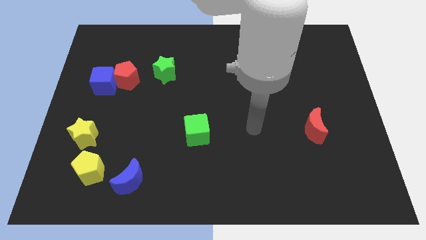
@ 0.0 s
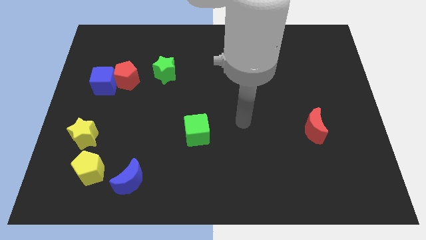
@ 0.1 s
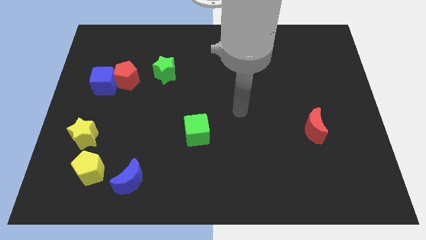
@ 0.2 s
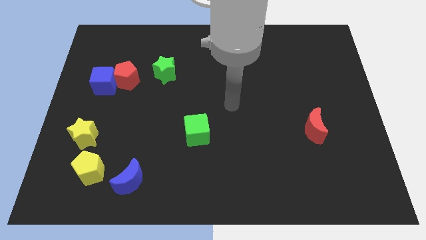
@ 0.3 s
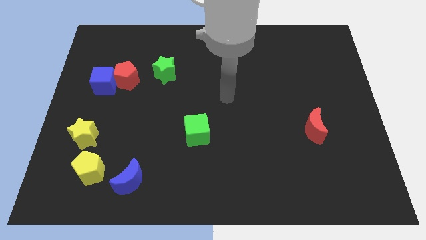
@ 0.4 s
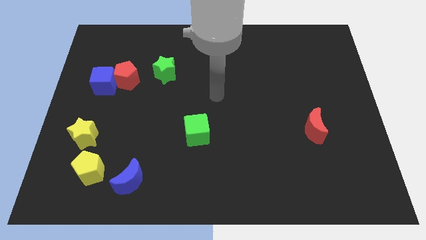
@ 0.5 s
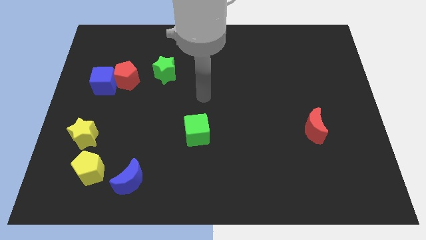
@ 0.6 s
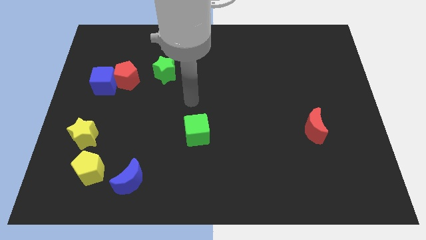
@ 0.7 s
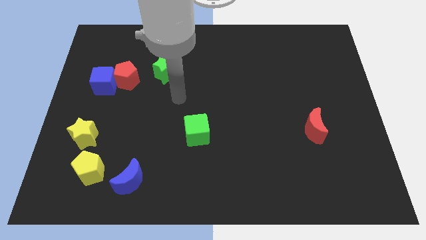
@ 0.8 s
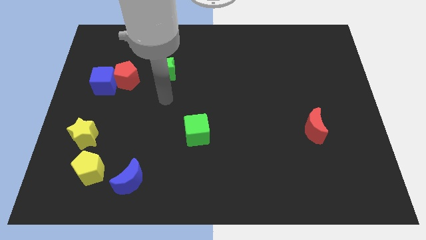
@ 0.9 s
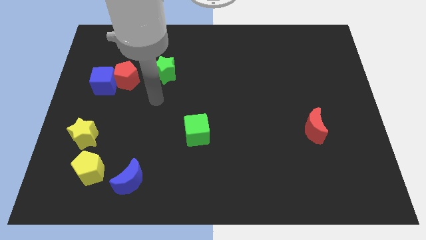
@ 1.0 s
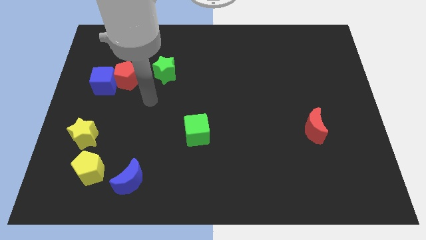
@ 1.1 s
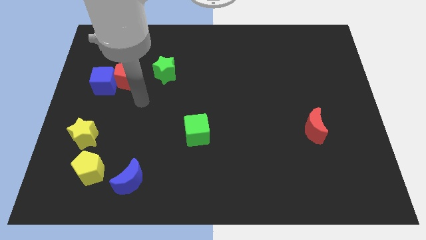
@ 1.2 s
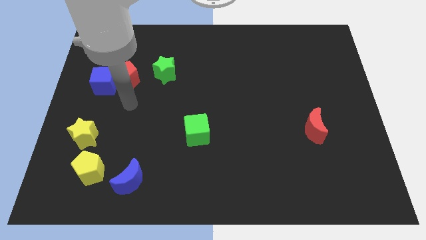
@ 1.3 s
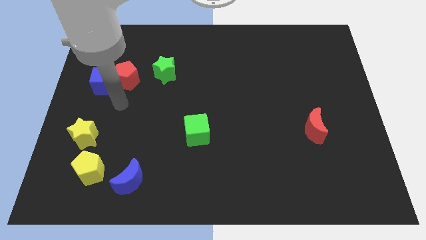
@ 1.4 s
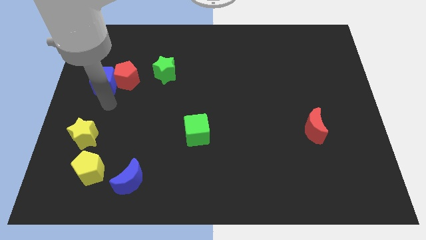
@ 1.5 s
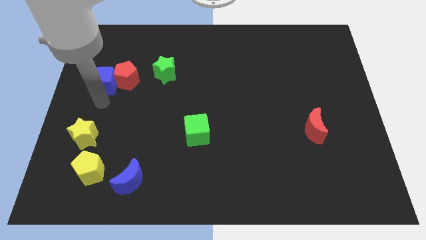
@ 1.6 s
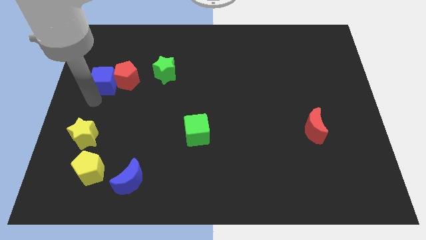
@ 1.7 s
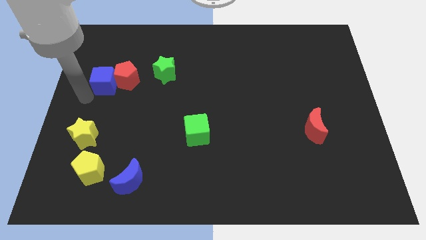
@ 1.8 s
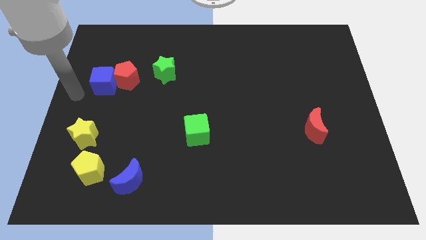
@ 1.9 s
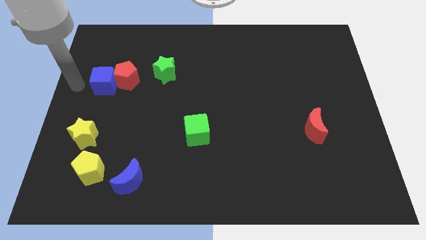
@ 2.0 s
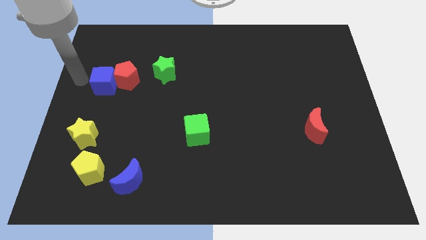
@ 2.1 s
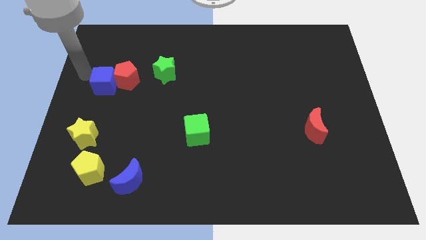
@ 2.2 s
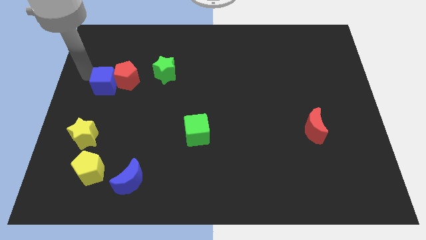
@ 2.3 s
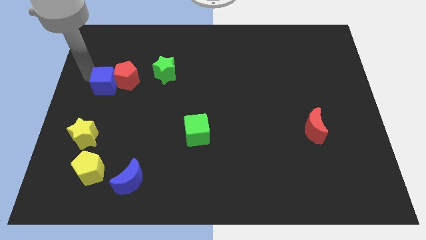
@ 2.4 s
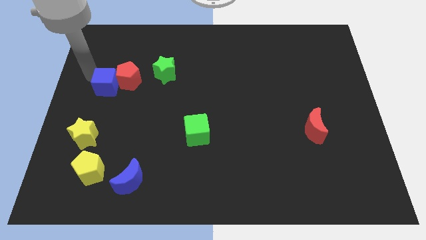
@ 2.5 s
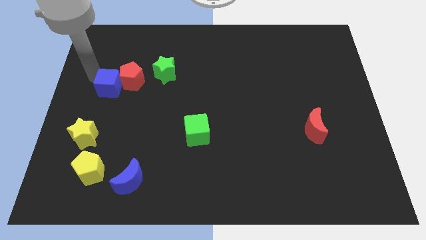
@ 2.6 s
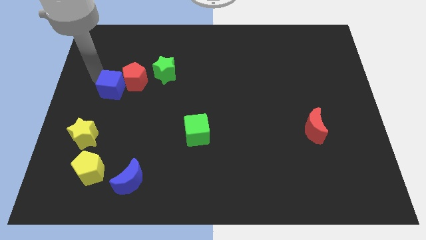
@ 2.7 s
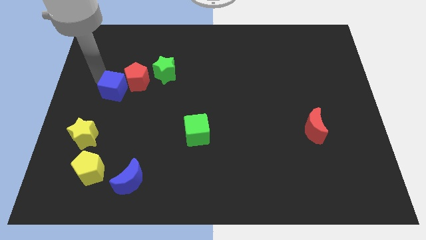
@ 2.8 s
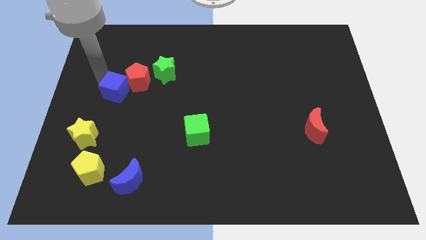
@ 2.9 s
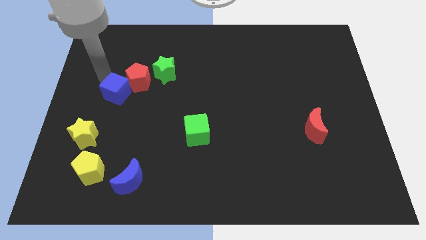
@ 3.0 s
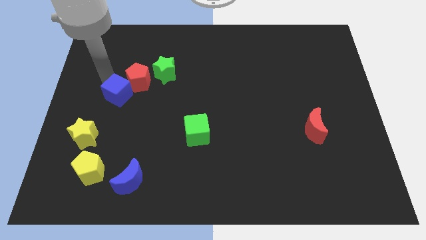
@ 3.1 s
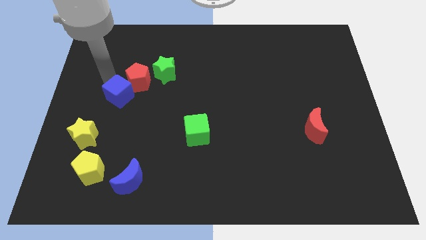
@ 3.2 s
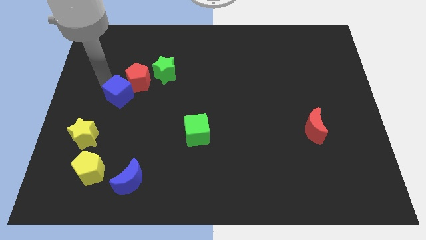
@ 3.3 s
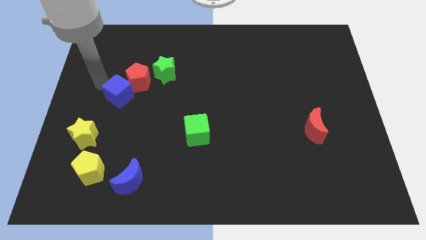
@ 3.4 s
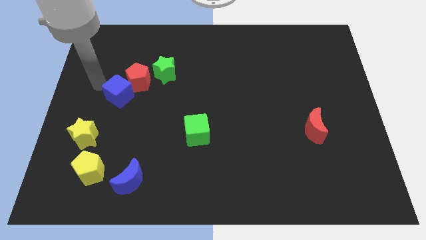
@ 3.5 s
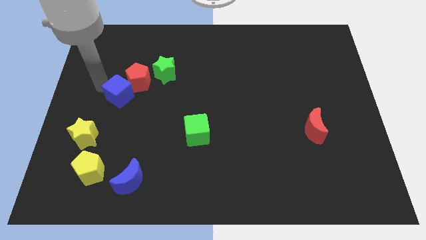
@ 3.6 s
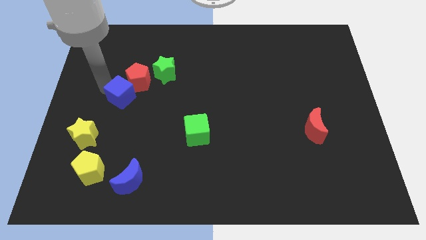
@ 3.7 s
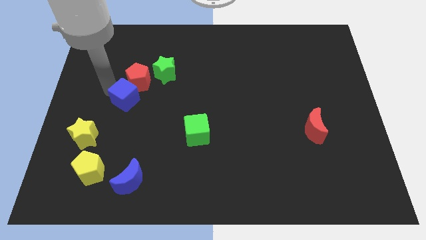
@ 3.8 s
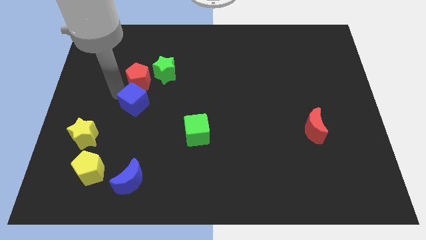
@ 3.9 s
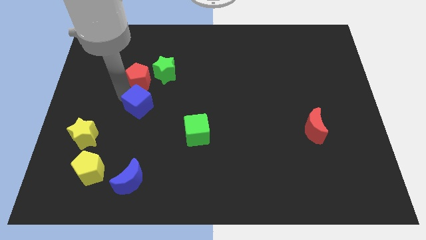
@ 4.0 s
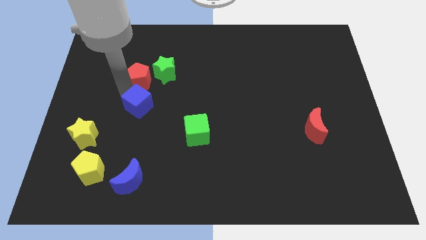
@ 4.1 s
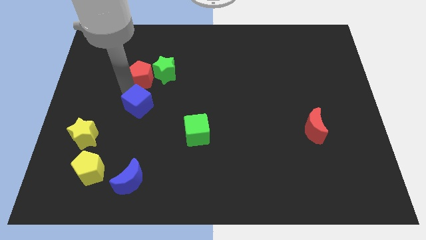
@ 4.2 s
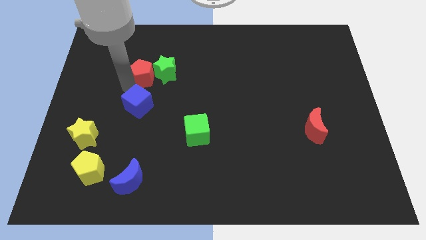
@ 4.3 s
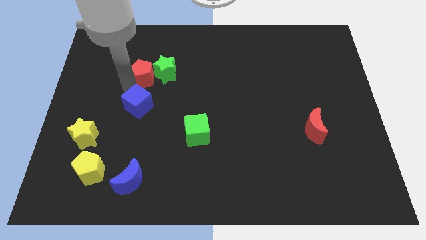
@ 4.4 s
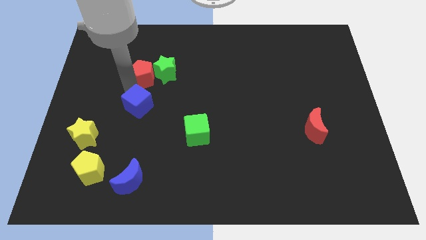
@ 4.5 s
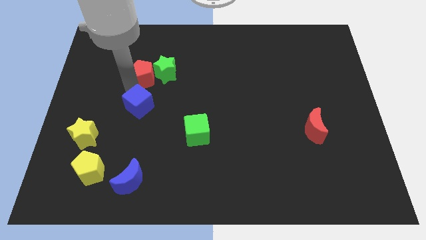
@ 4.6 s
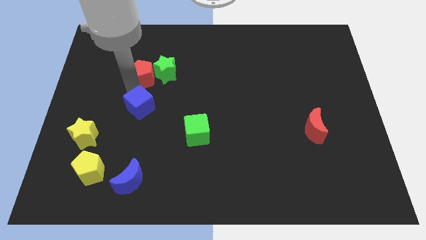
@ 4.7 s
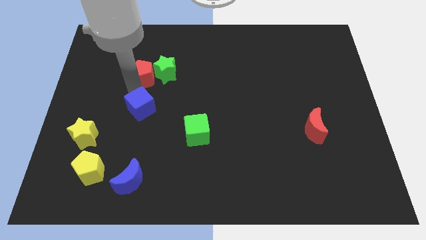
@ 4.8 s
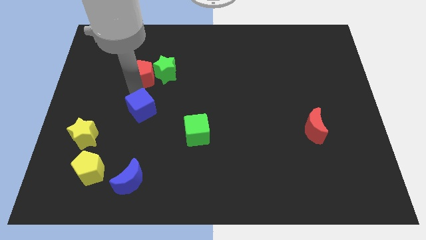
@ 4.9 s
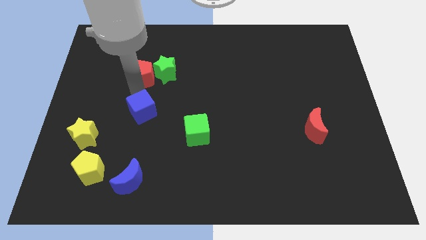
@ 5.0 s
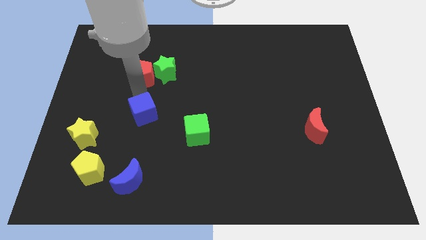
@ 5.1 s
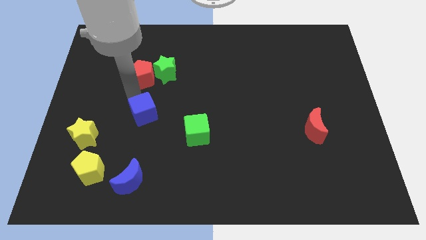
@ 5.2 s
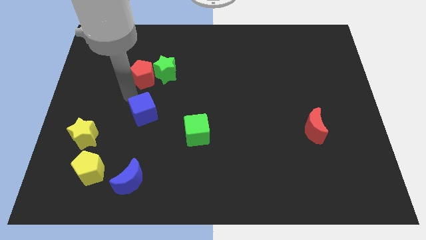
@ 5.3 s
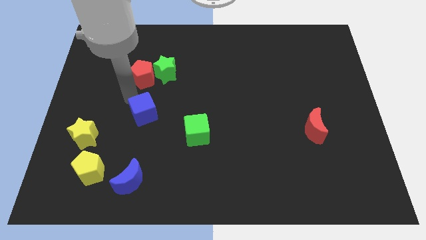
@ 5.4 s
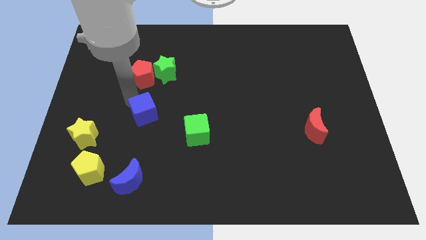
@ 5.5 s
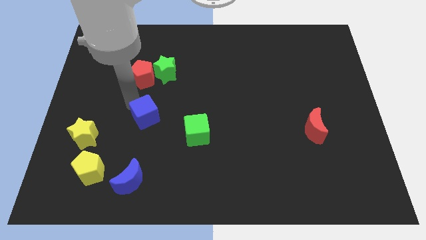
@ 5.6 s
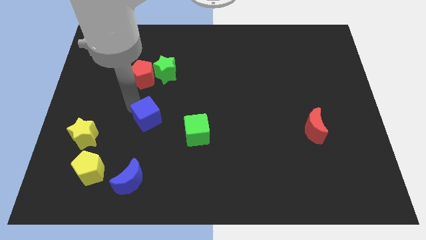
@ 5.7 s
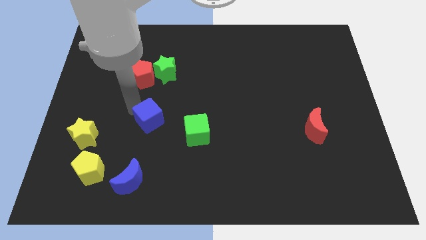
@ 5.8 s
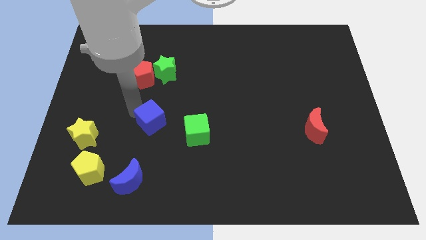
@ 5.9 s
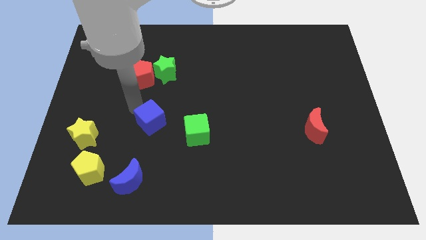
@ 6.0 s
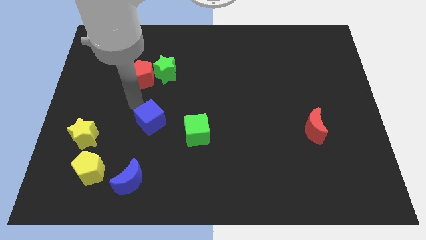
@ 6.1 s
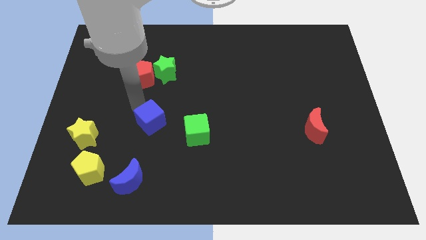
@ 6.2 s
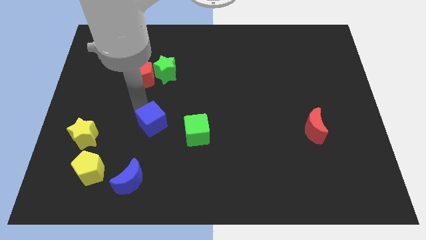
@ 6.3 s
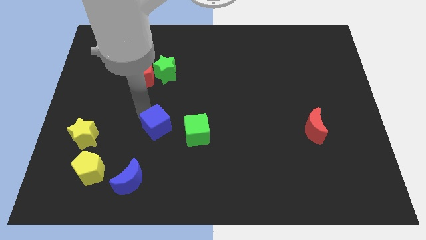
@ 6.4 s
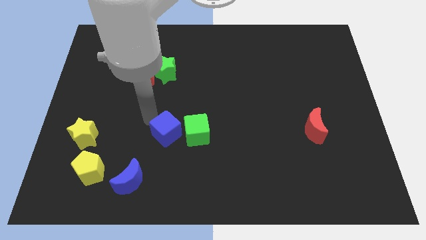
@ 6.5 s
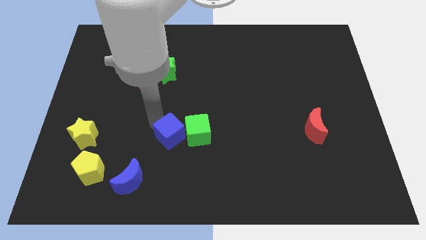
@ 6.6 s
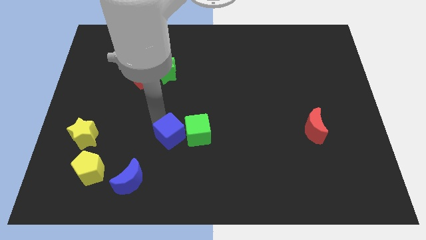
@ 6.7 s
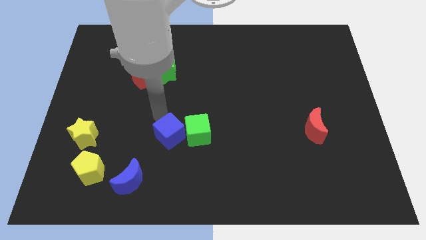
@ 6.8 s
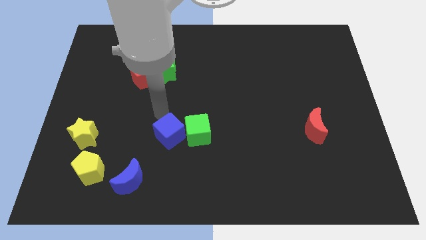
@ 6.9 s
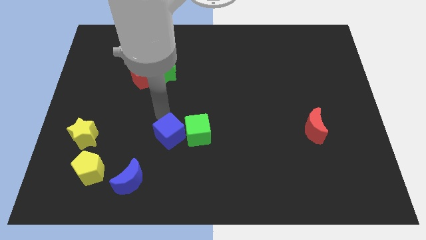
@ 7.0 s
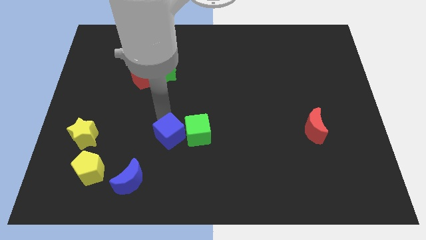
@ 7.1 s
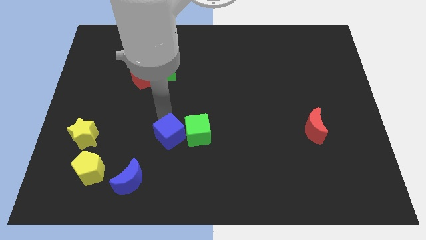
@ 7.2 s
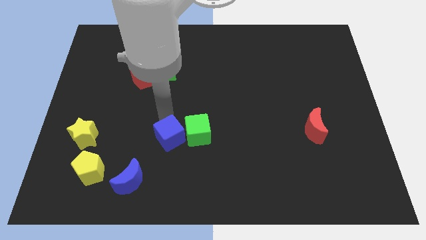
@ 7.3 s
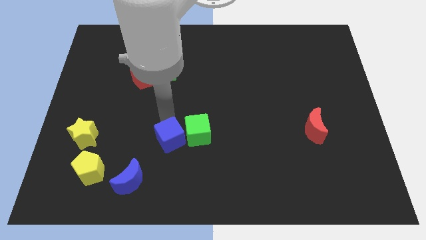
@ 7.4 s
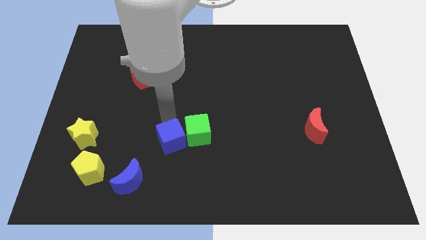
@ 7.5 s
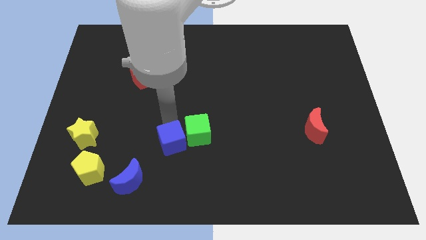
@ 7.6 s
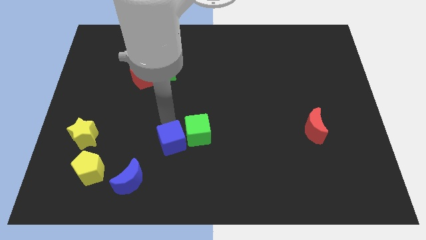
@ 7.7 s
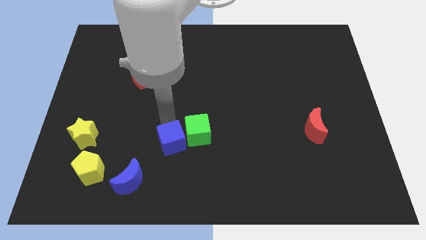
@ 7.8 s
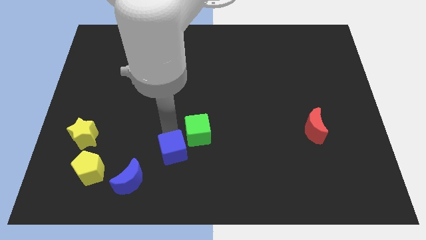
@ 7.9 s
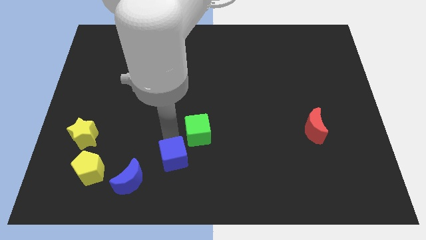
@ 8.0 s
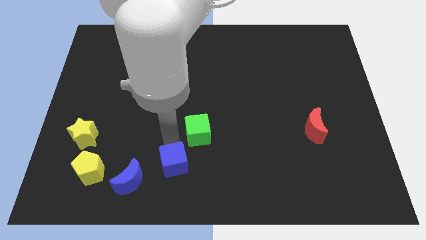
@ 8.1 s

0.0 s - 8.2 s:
slide the blue cube to the bottom side
